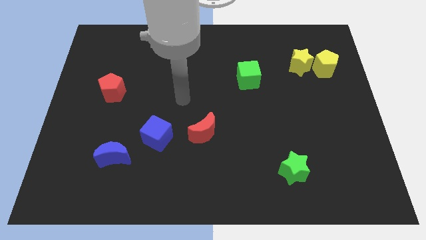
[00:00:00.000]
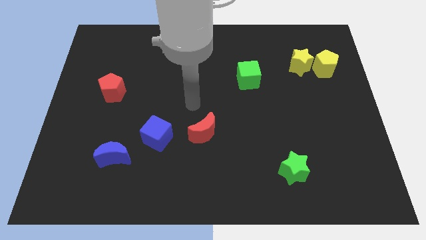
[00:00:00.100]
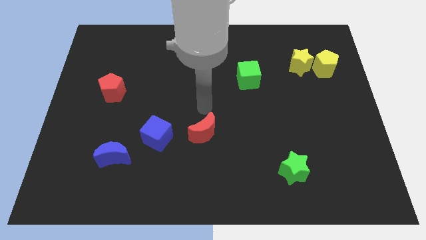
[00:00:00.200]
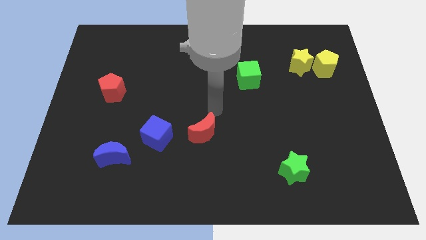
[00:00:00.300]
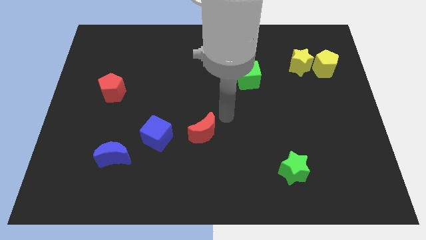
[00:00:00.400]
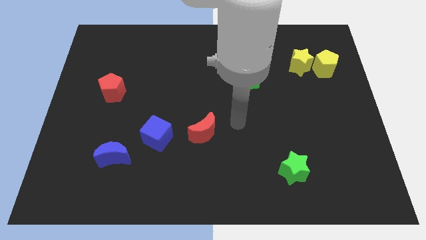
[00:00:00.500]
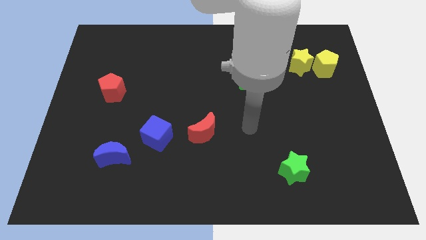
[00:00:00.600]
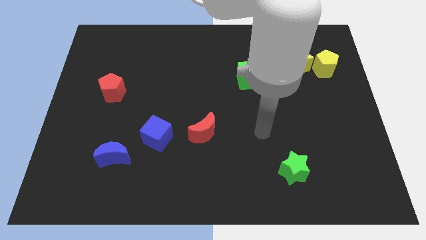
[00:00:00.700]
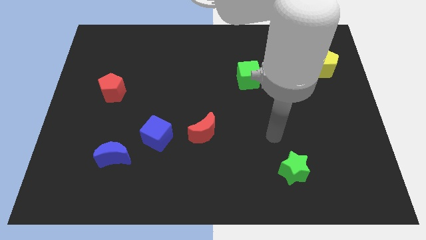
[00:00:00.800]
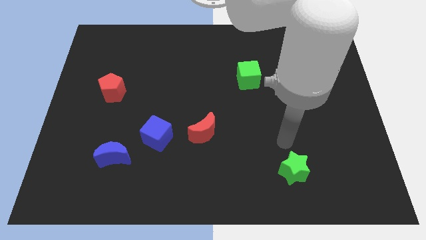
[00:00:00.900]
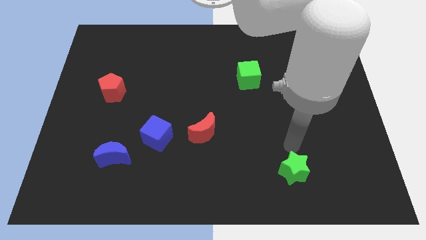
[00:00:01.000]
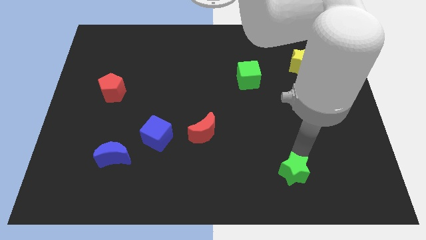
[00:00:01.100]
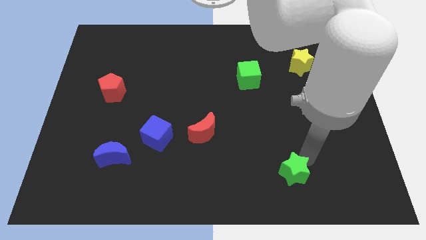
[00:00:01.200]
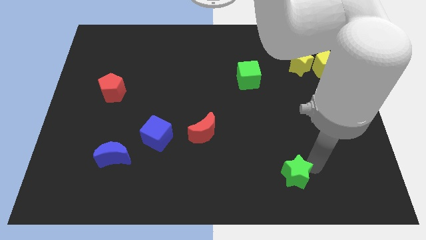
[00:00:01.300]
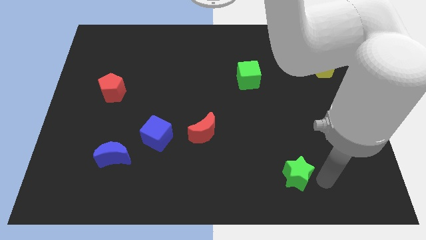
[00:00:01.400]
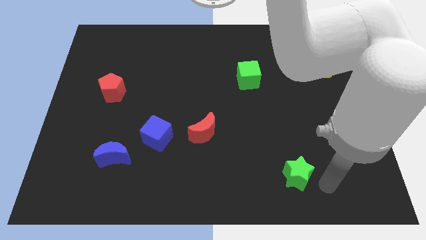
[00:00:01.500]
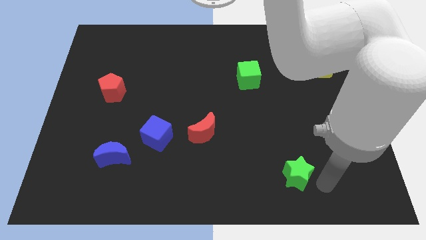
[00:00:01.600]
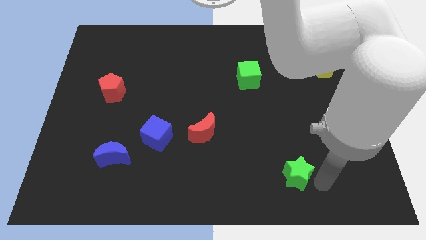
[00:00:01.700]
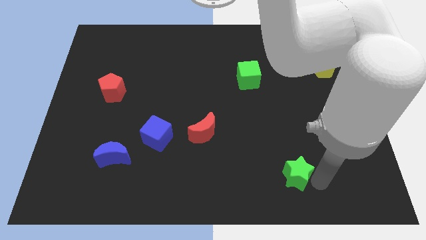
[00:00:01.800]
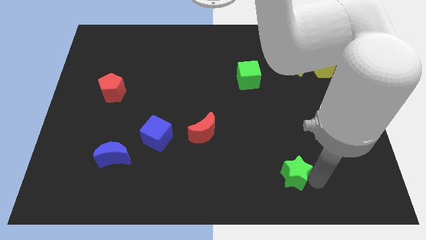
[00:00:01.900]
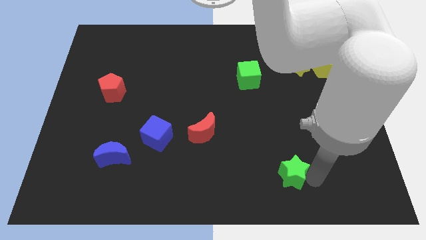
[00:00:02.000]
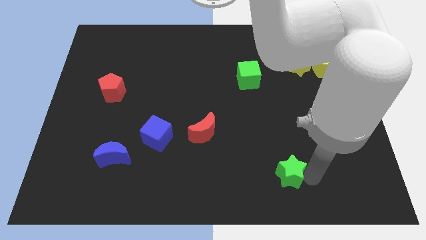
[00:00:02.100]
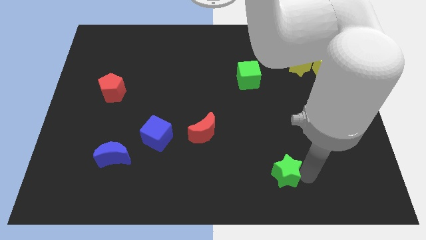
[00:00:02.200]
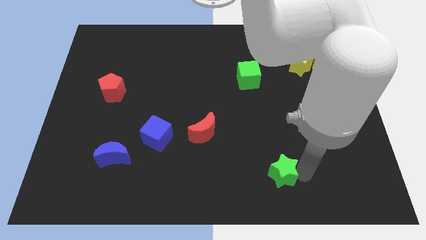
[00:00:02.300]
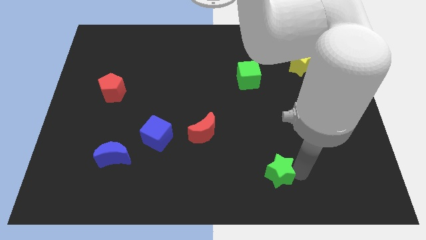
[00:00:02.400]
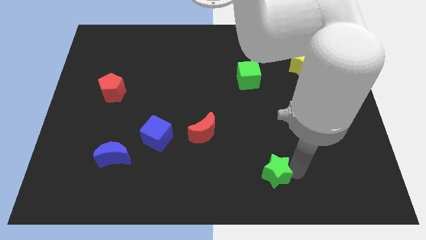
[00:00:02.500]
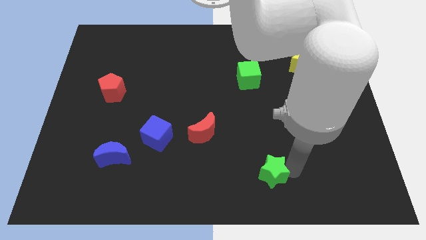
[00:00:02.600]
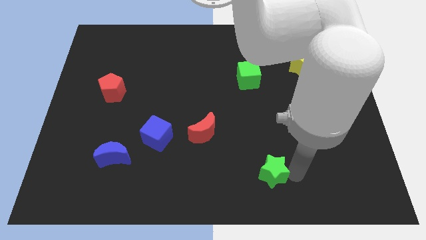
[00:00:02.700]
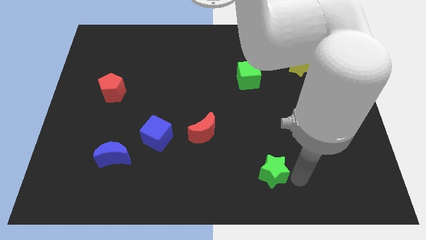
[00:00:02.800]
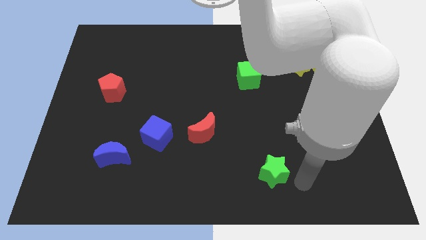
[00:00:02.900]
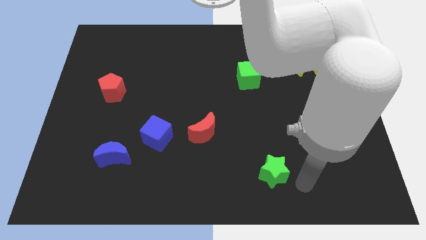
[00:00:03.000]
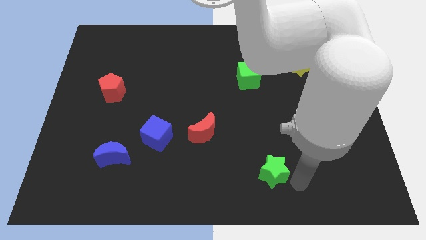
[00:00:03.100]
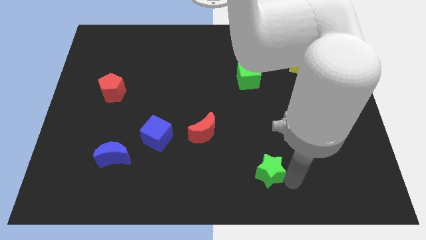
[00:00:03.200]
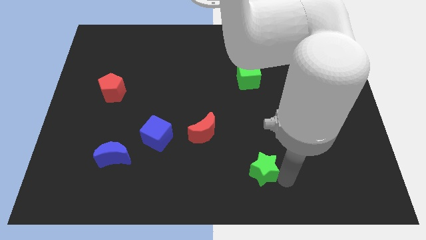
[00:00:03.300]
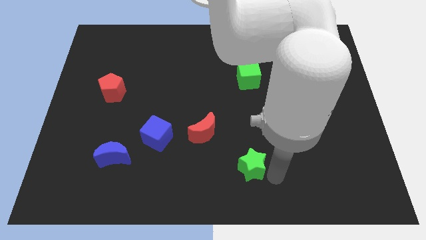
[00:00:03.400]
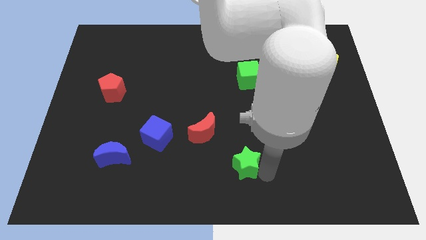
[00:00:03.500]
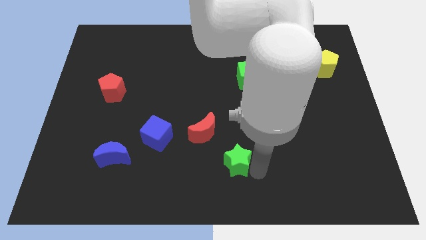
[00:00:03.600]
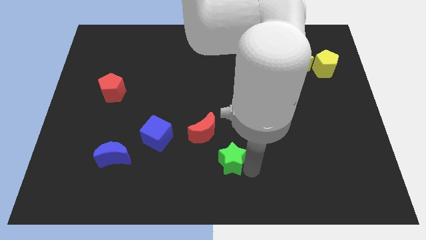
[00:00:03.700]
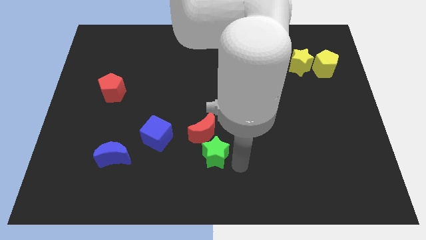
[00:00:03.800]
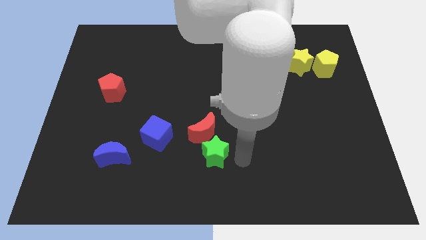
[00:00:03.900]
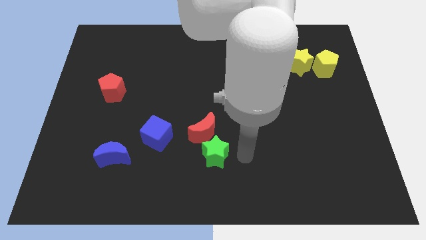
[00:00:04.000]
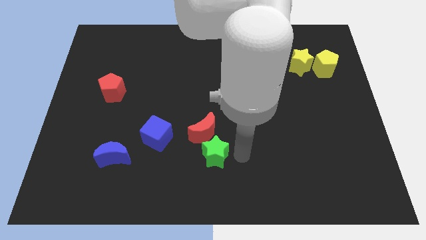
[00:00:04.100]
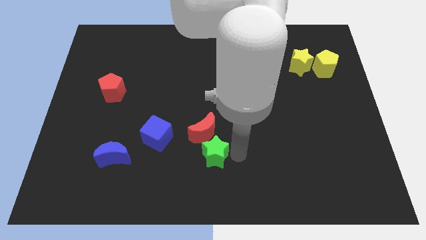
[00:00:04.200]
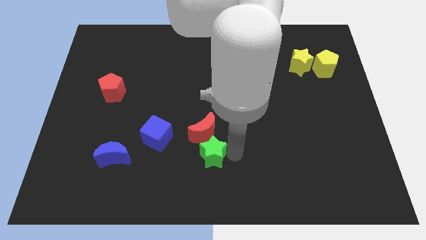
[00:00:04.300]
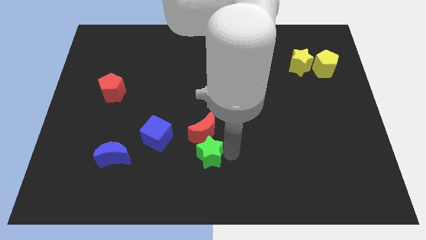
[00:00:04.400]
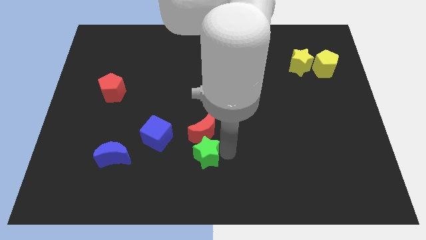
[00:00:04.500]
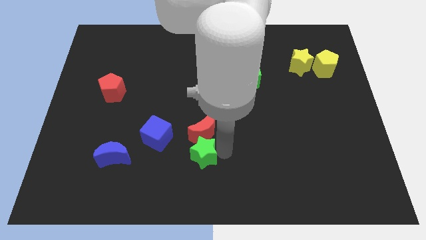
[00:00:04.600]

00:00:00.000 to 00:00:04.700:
slide the green star diagonally down and to the right of the blue cube

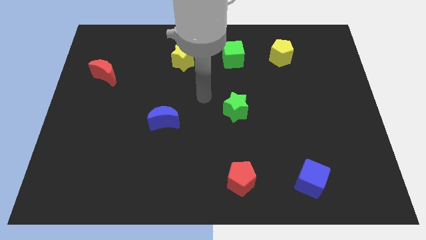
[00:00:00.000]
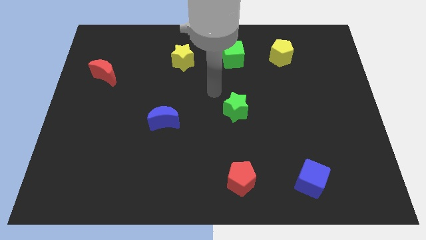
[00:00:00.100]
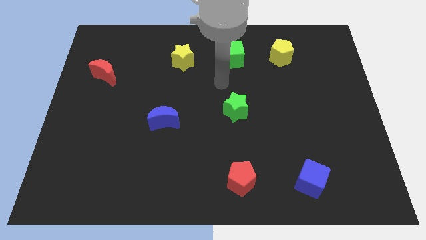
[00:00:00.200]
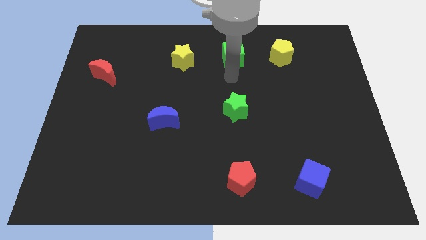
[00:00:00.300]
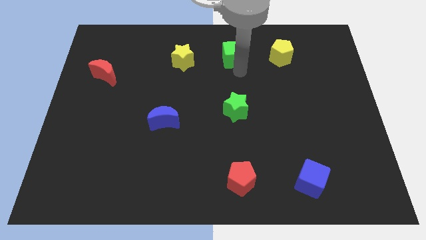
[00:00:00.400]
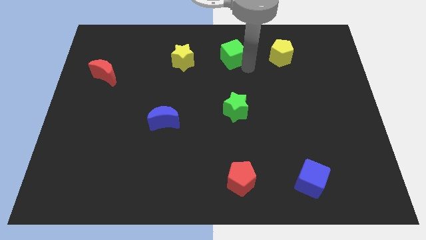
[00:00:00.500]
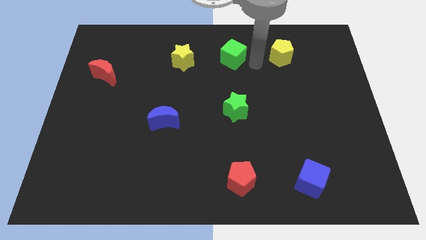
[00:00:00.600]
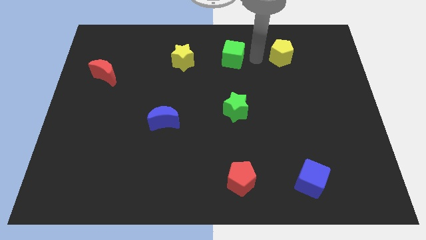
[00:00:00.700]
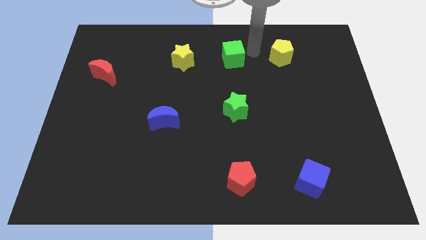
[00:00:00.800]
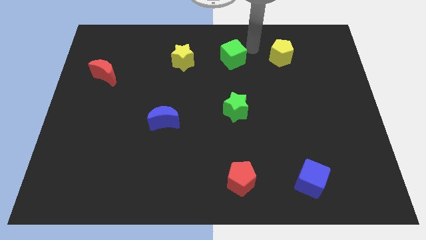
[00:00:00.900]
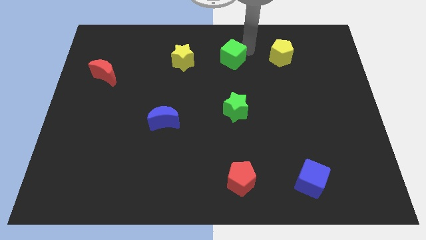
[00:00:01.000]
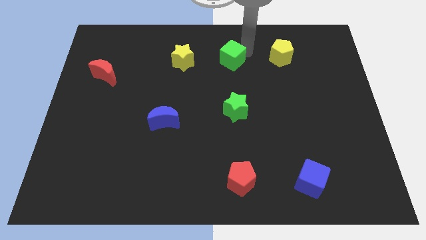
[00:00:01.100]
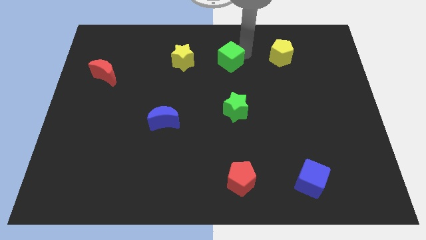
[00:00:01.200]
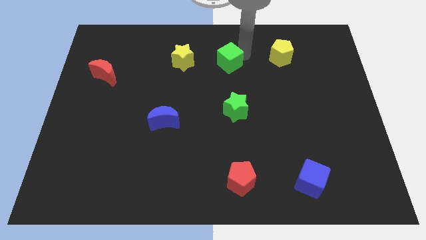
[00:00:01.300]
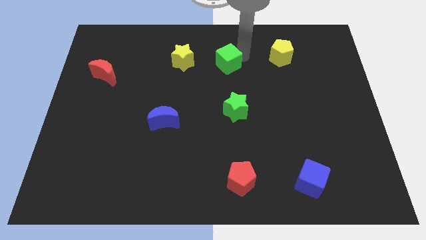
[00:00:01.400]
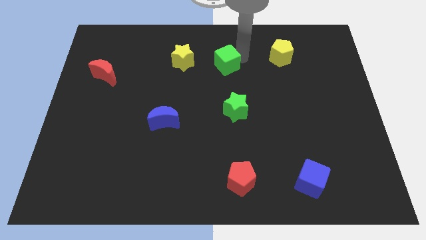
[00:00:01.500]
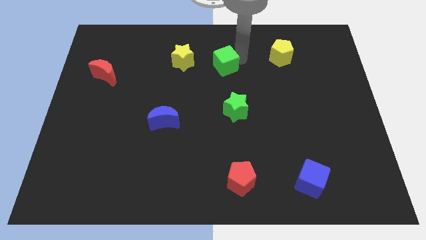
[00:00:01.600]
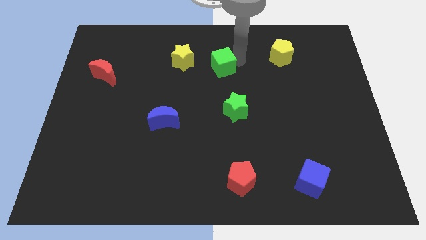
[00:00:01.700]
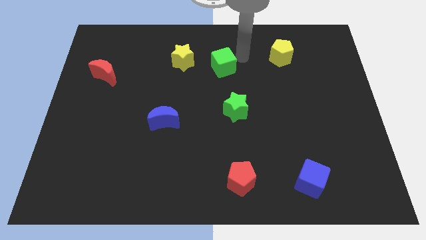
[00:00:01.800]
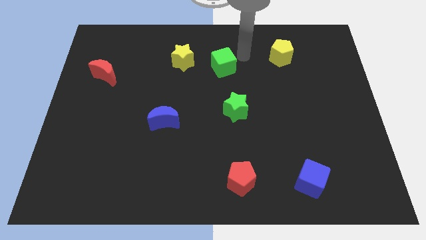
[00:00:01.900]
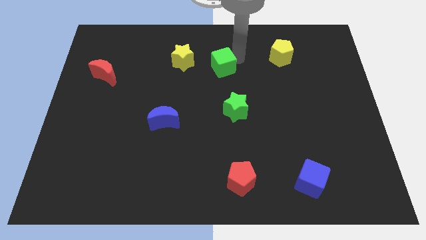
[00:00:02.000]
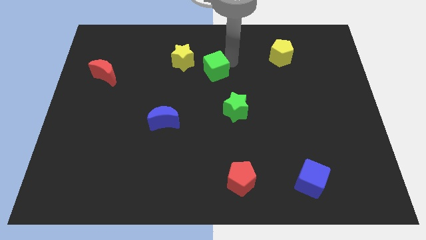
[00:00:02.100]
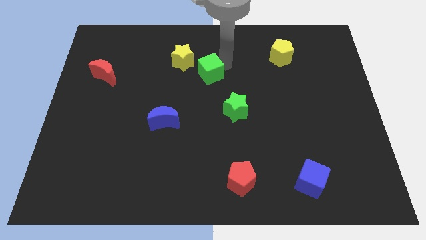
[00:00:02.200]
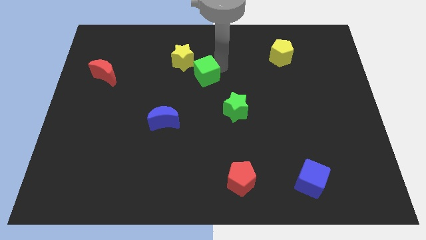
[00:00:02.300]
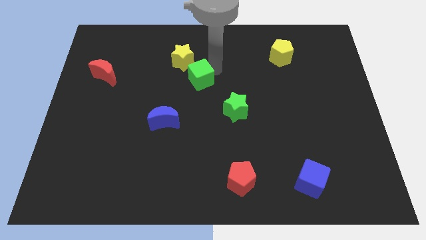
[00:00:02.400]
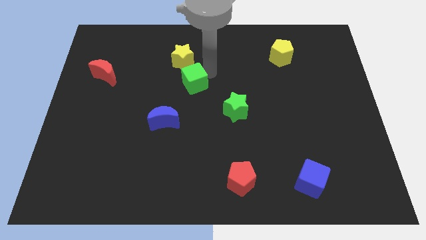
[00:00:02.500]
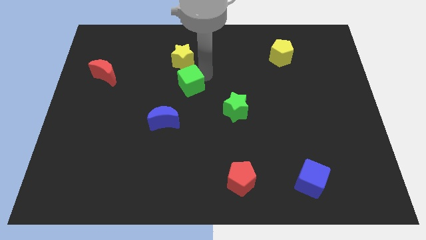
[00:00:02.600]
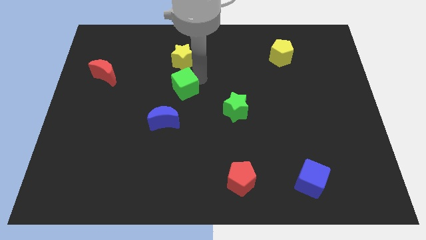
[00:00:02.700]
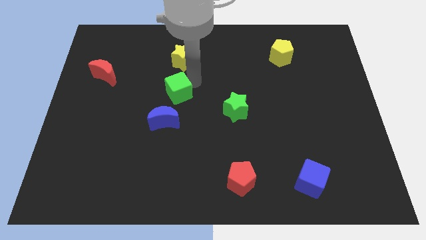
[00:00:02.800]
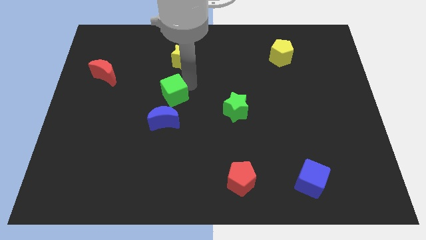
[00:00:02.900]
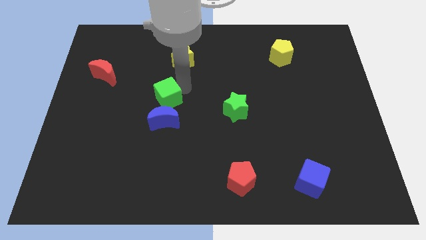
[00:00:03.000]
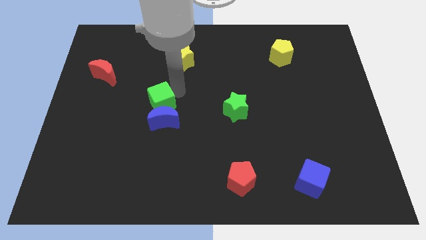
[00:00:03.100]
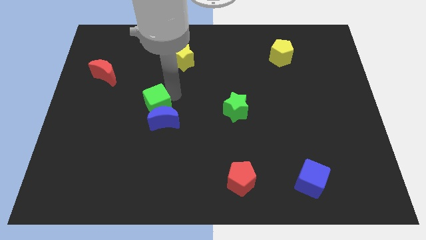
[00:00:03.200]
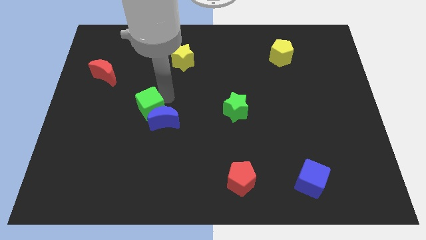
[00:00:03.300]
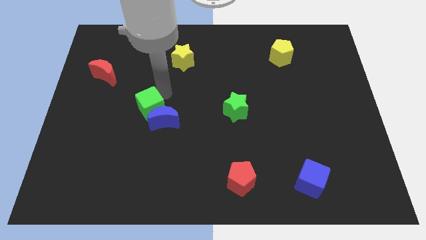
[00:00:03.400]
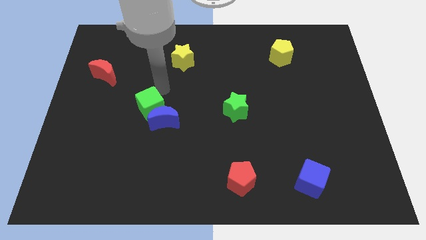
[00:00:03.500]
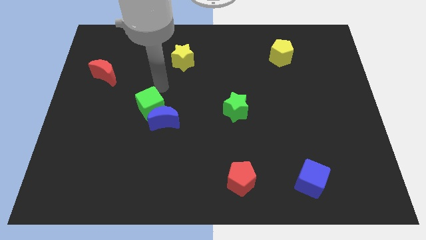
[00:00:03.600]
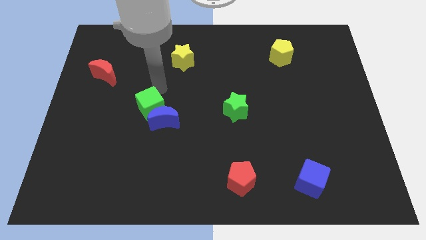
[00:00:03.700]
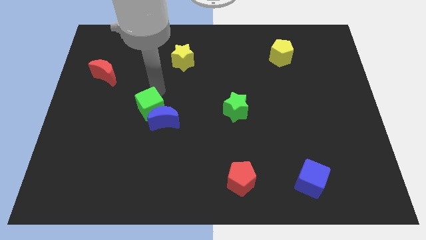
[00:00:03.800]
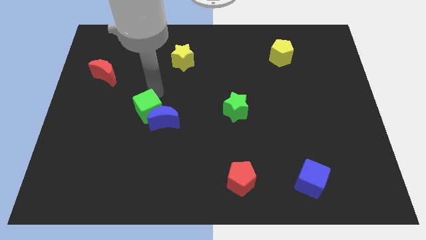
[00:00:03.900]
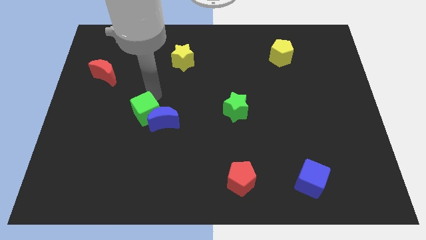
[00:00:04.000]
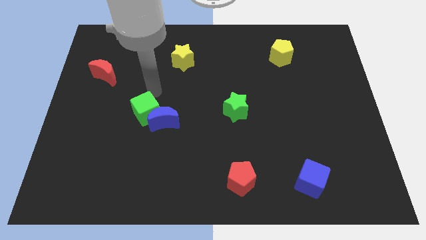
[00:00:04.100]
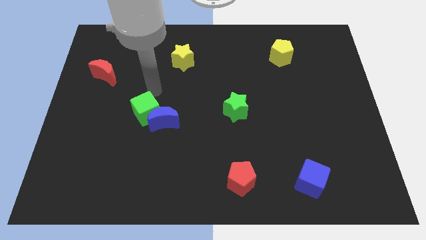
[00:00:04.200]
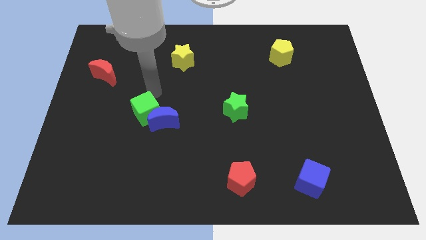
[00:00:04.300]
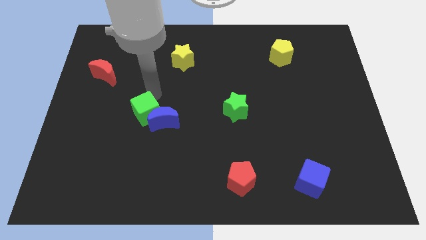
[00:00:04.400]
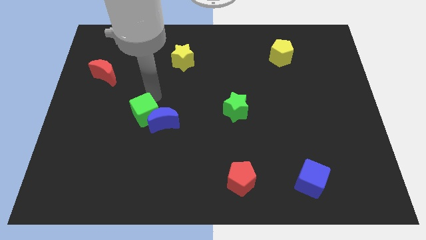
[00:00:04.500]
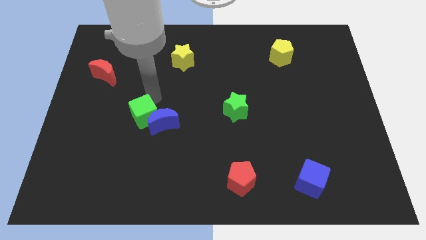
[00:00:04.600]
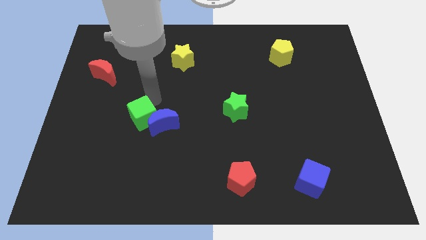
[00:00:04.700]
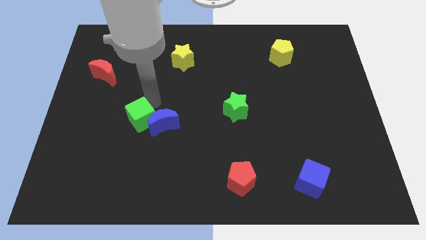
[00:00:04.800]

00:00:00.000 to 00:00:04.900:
slide the green cube diagonally down and to the left of the blue moon
